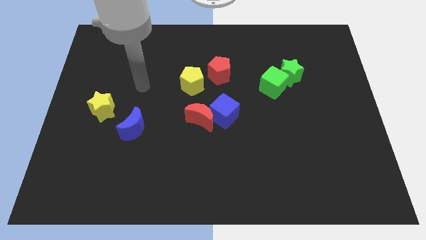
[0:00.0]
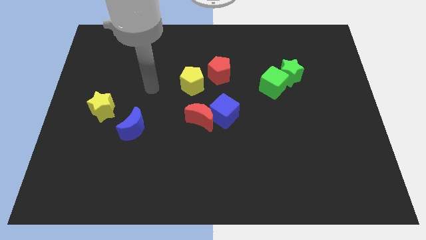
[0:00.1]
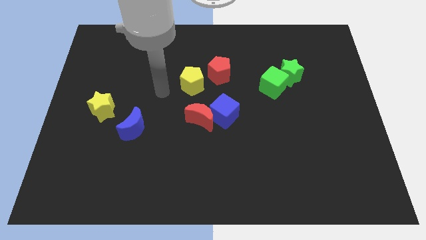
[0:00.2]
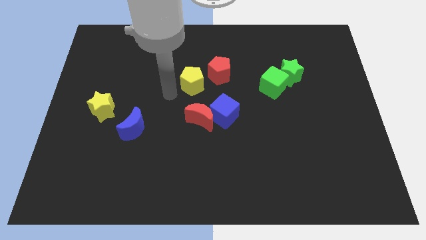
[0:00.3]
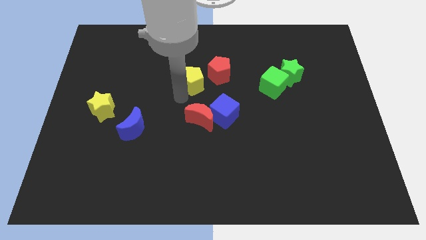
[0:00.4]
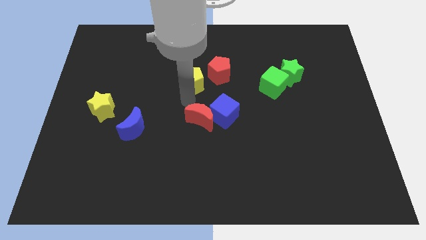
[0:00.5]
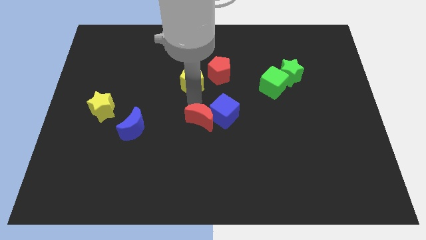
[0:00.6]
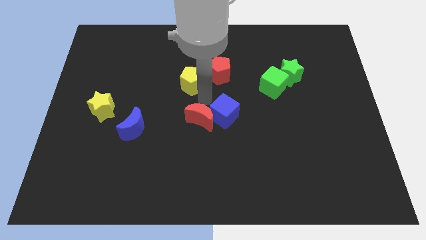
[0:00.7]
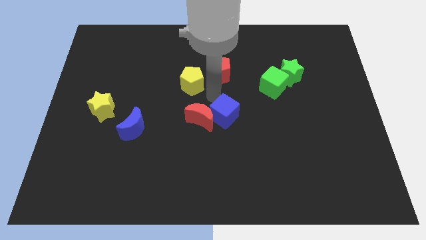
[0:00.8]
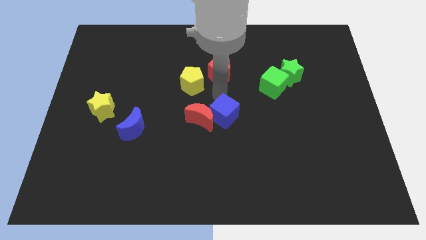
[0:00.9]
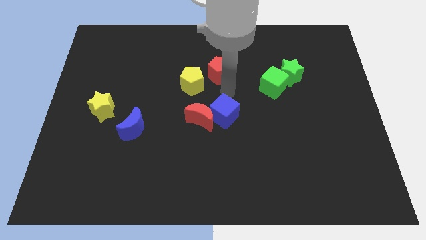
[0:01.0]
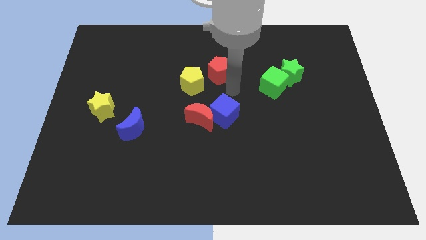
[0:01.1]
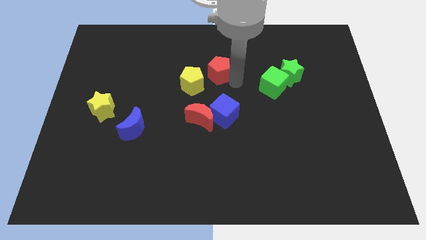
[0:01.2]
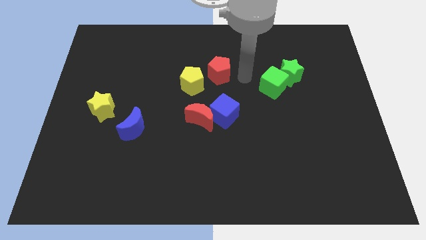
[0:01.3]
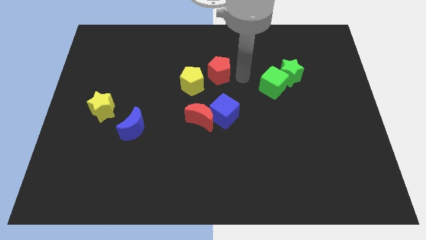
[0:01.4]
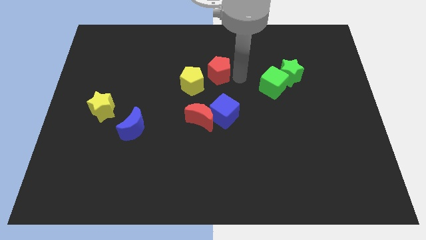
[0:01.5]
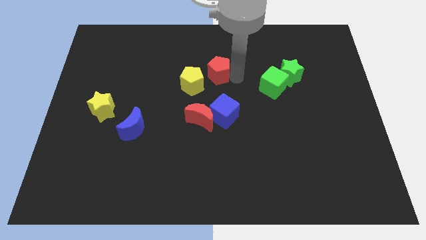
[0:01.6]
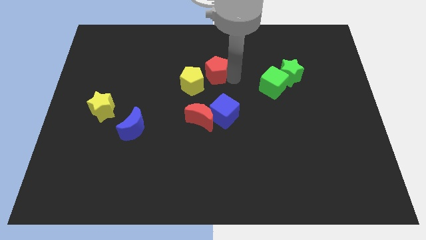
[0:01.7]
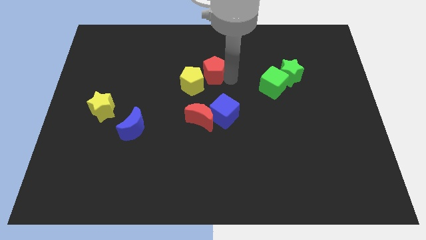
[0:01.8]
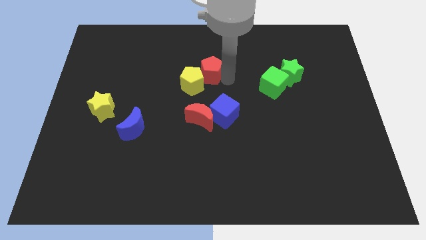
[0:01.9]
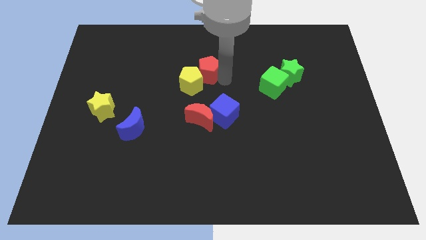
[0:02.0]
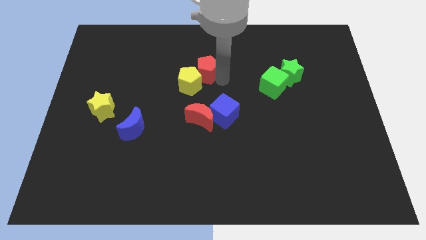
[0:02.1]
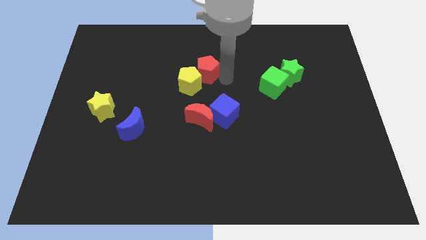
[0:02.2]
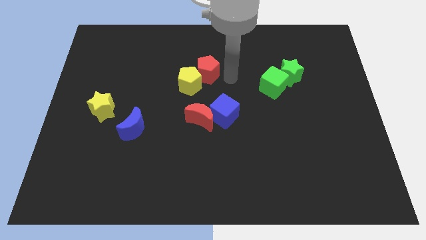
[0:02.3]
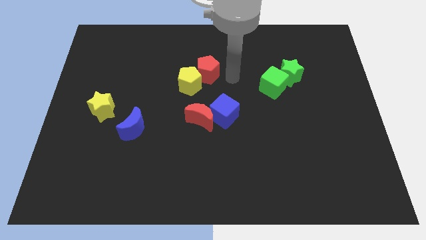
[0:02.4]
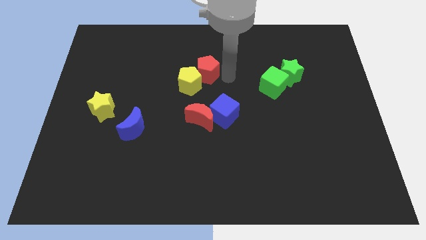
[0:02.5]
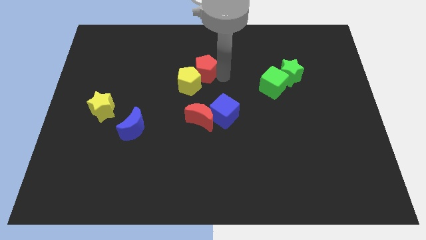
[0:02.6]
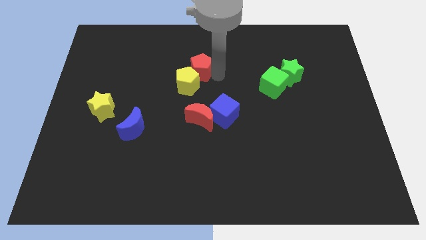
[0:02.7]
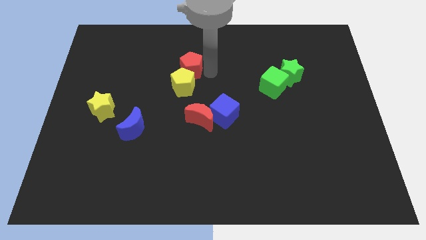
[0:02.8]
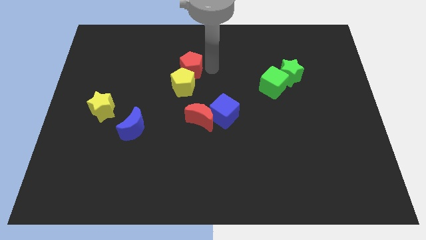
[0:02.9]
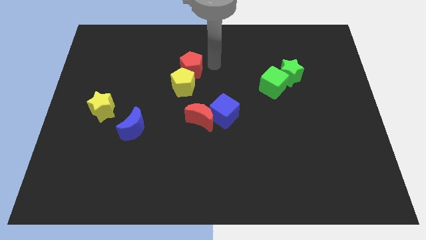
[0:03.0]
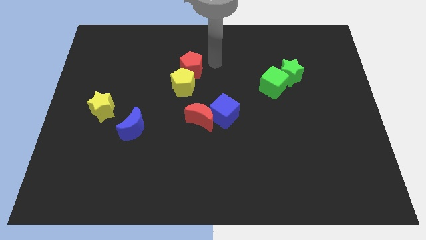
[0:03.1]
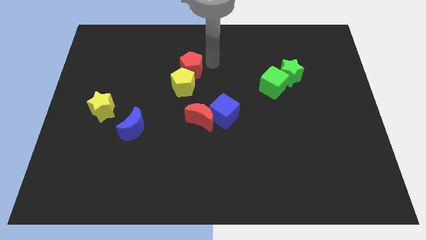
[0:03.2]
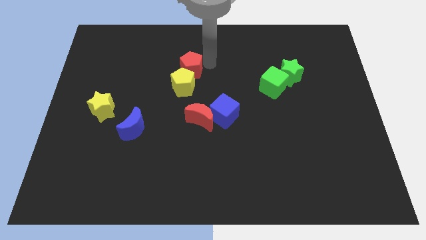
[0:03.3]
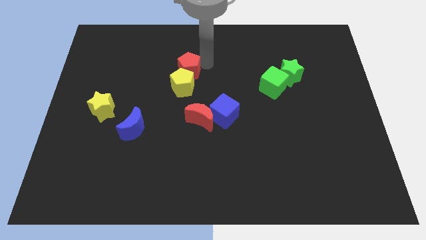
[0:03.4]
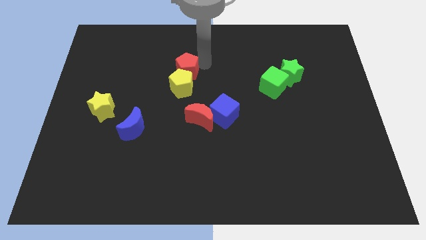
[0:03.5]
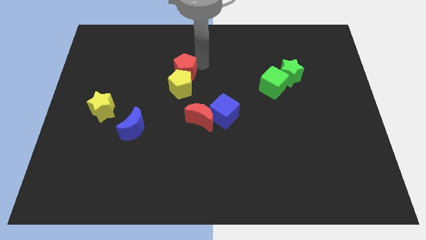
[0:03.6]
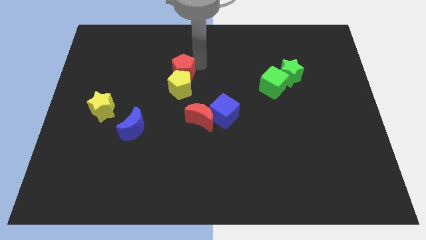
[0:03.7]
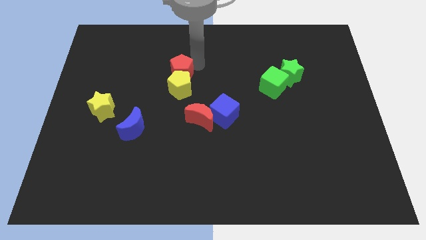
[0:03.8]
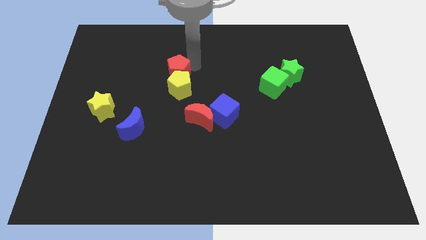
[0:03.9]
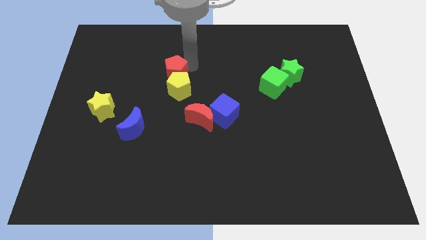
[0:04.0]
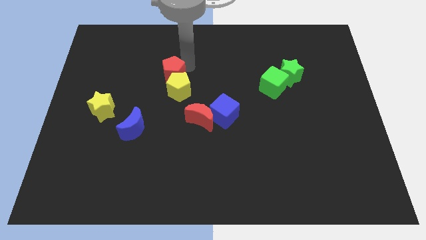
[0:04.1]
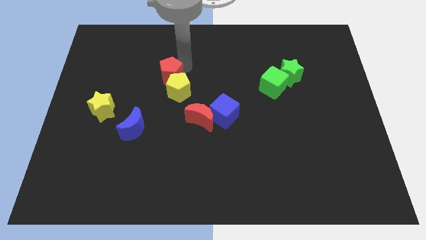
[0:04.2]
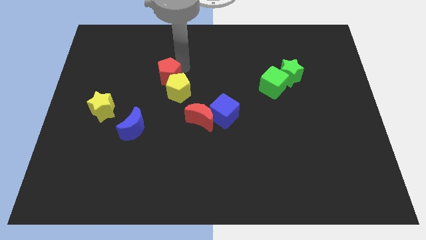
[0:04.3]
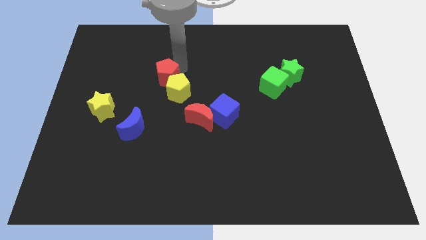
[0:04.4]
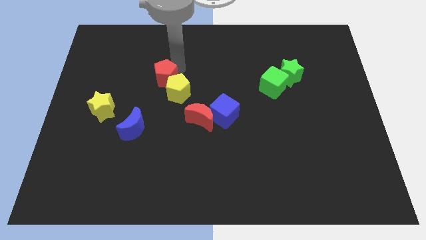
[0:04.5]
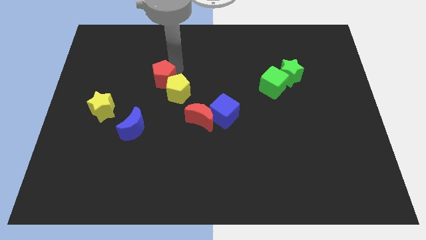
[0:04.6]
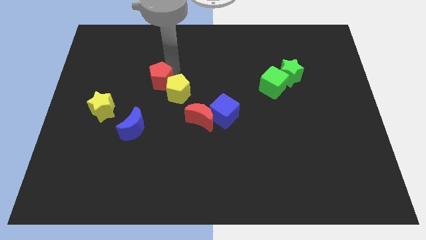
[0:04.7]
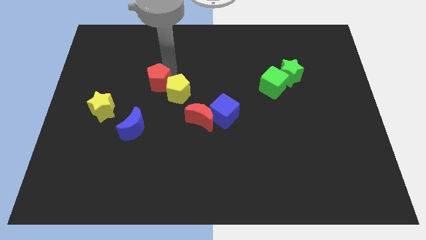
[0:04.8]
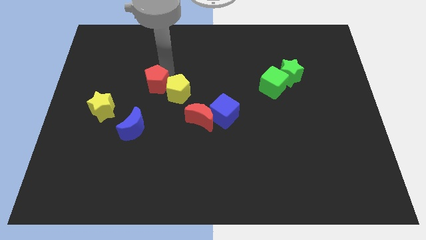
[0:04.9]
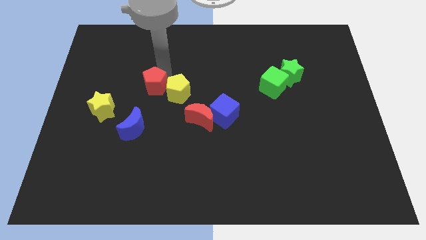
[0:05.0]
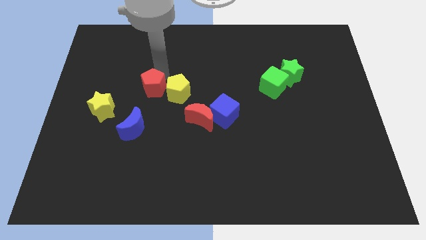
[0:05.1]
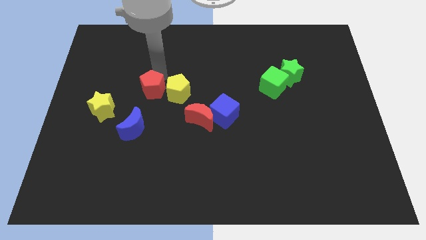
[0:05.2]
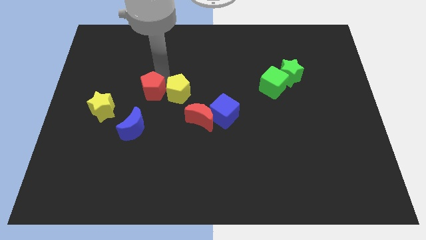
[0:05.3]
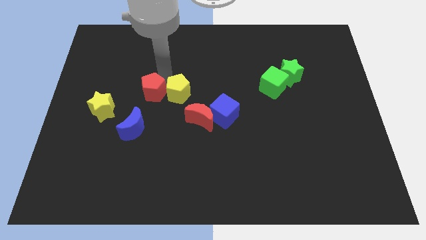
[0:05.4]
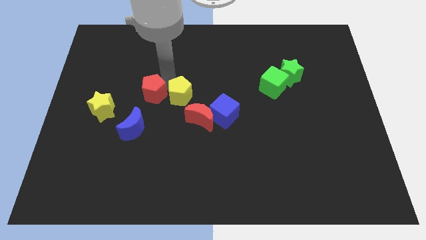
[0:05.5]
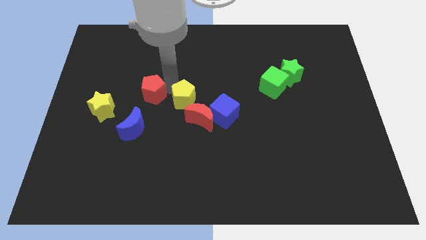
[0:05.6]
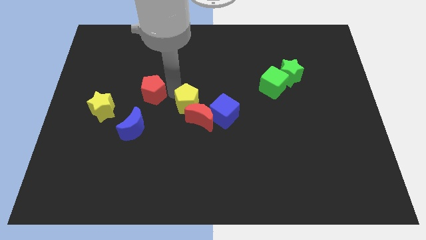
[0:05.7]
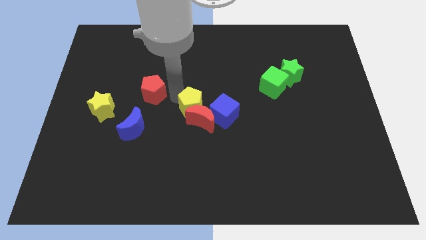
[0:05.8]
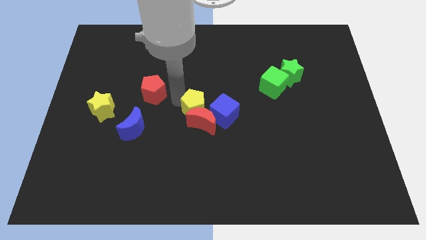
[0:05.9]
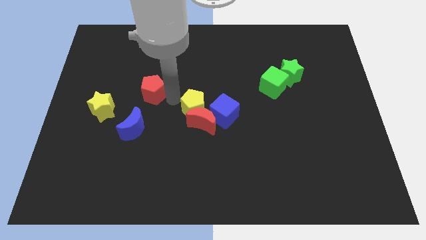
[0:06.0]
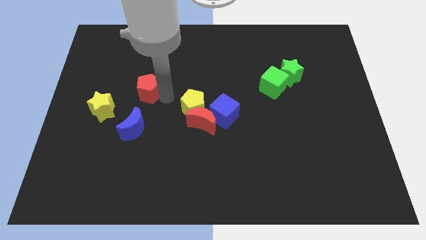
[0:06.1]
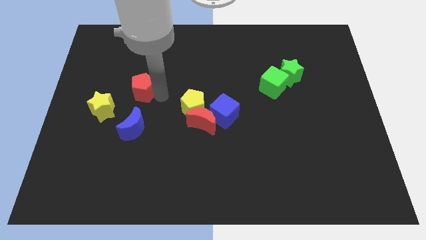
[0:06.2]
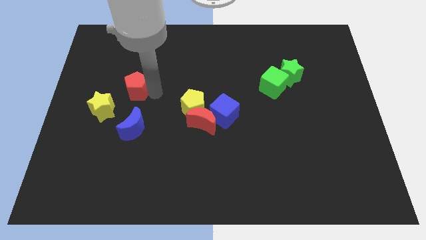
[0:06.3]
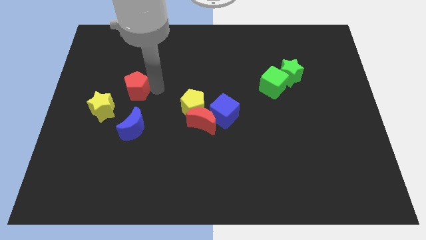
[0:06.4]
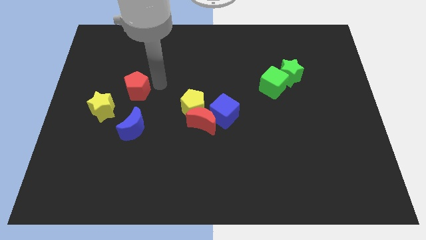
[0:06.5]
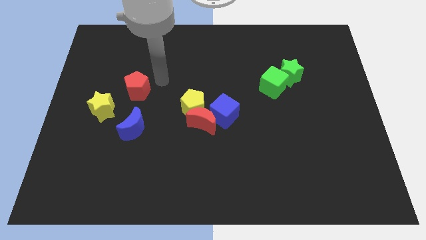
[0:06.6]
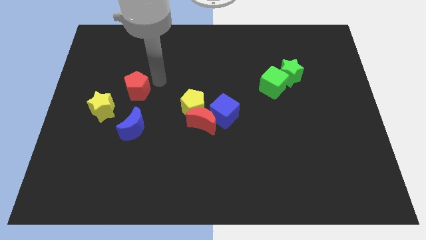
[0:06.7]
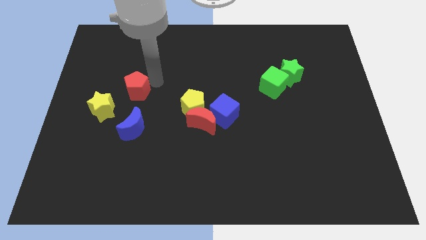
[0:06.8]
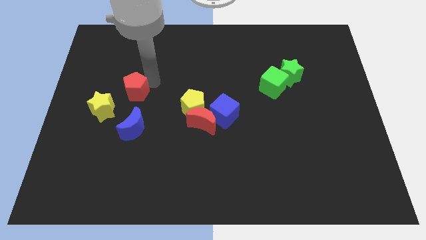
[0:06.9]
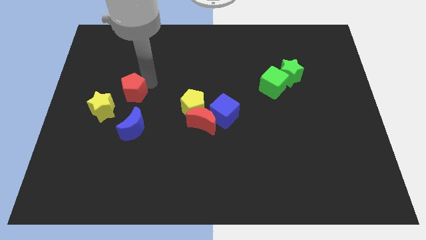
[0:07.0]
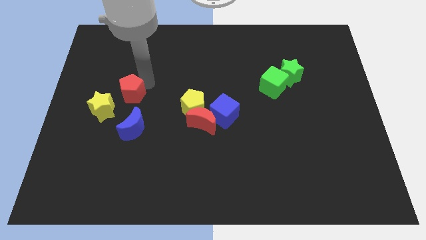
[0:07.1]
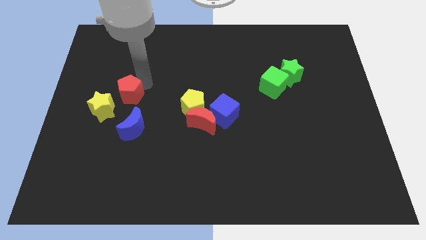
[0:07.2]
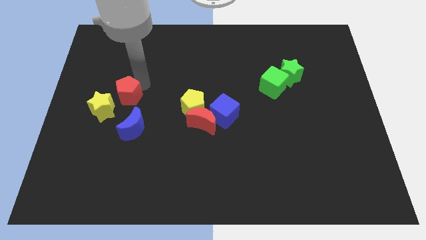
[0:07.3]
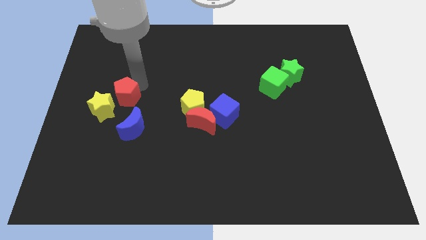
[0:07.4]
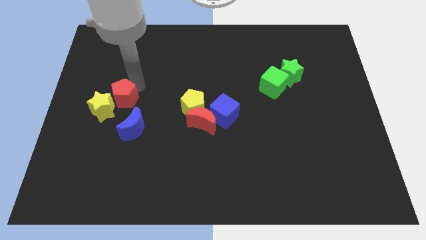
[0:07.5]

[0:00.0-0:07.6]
move the red pentagon close to the yellow star
